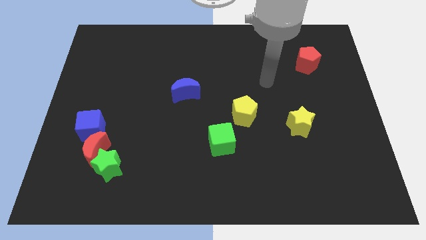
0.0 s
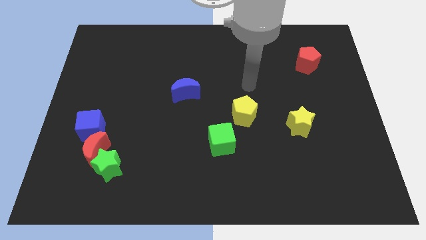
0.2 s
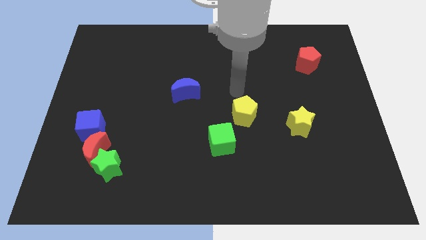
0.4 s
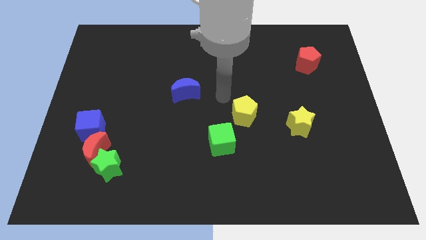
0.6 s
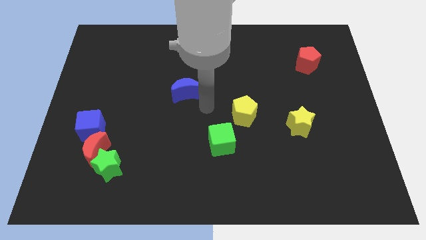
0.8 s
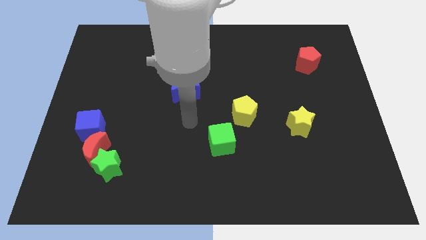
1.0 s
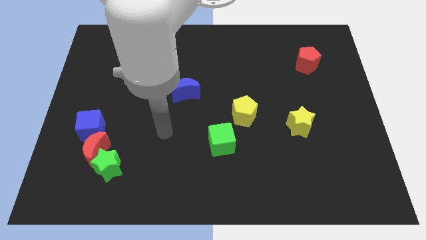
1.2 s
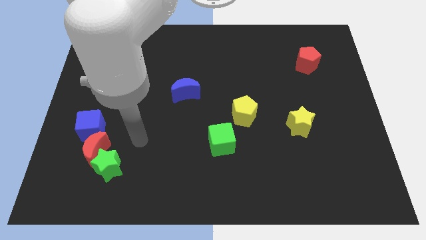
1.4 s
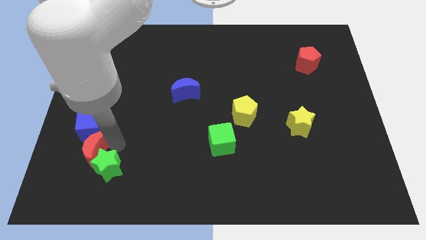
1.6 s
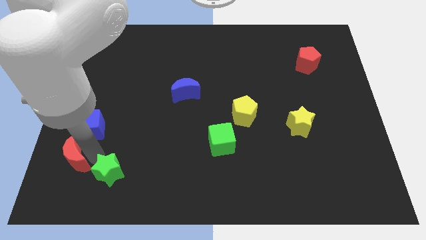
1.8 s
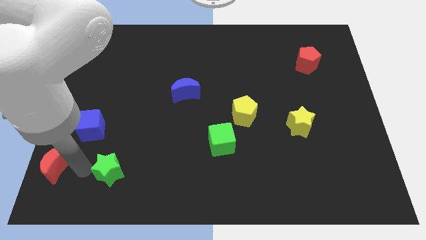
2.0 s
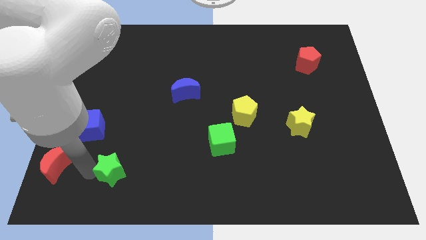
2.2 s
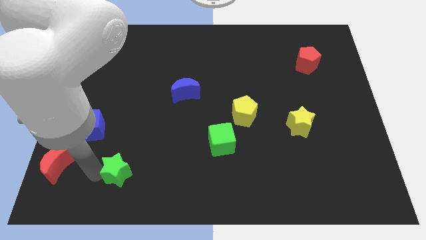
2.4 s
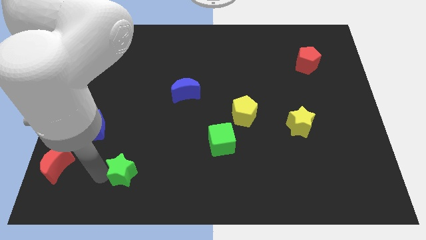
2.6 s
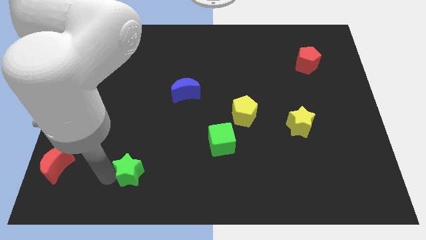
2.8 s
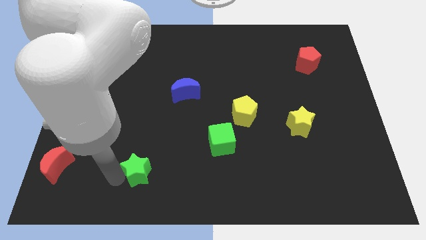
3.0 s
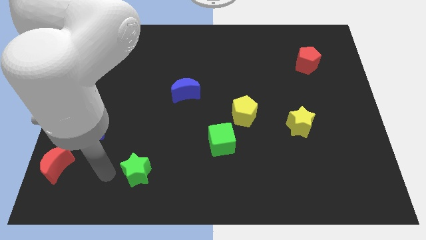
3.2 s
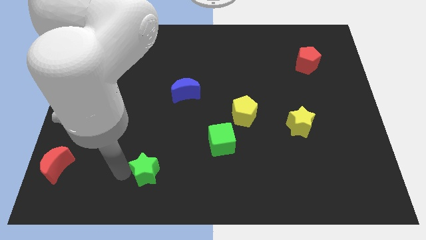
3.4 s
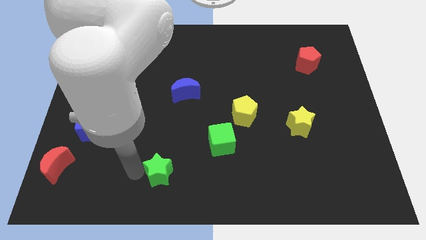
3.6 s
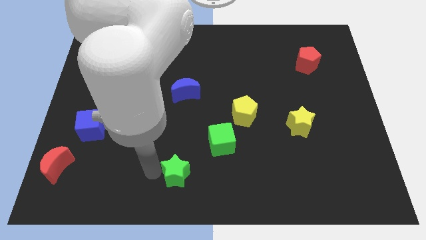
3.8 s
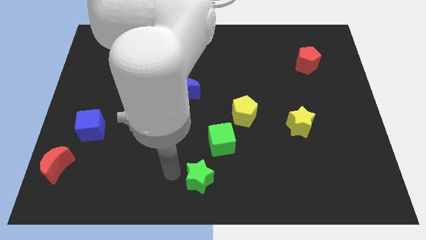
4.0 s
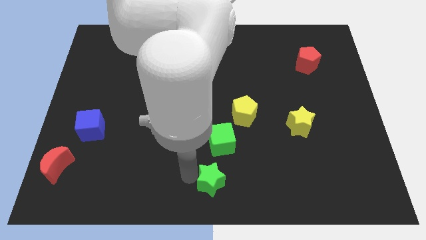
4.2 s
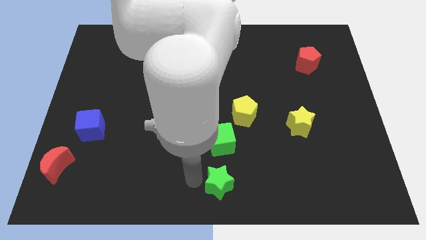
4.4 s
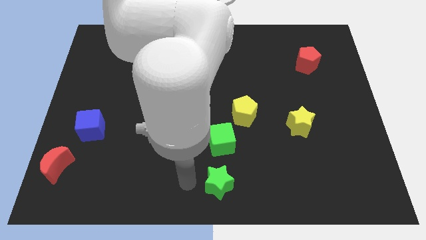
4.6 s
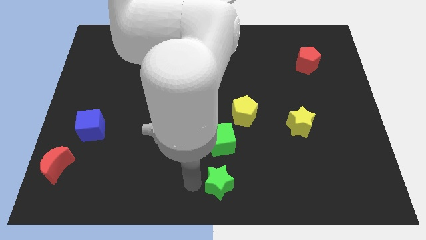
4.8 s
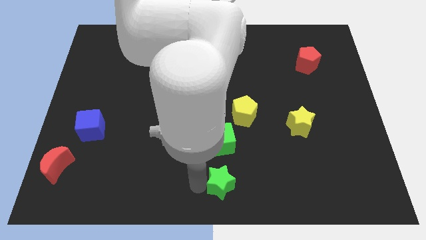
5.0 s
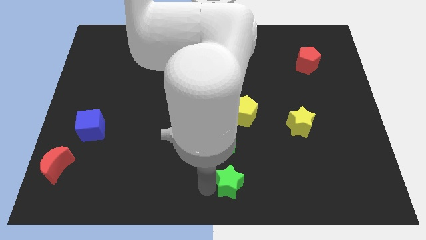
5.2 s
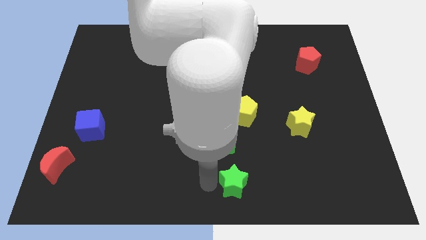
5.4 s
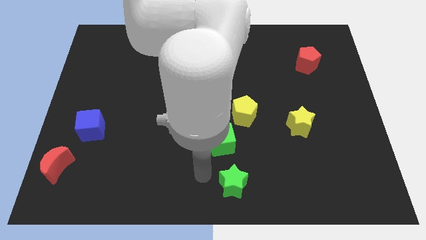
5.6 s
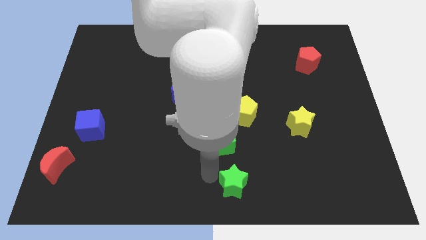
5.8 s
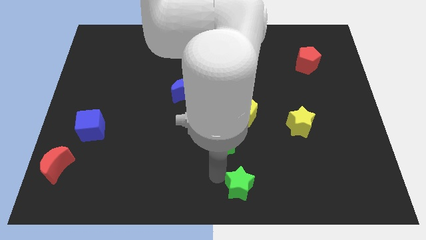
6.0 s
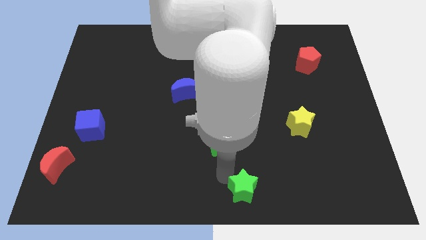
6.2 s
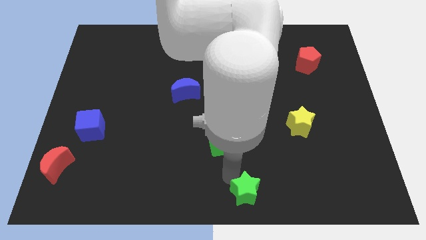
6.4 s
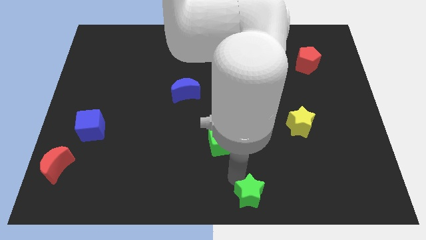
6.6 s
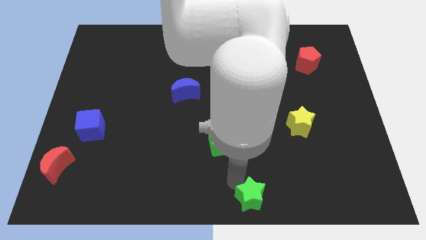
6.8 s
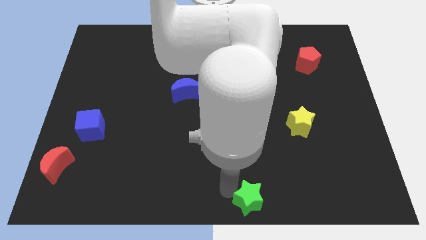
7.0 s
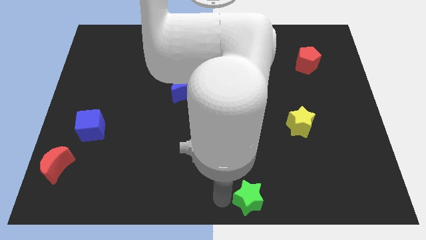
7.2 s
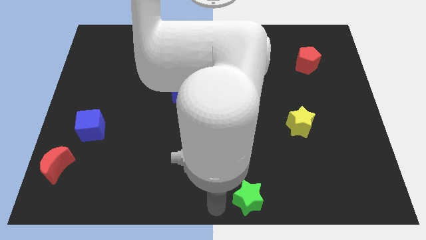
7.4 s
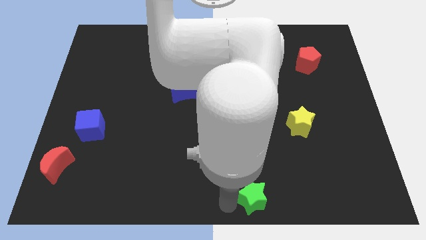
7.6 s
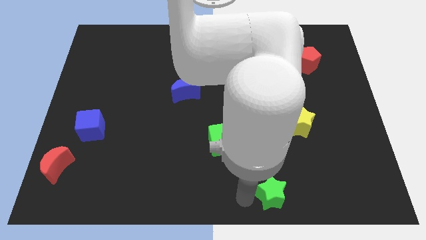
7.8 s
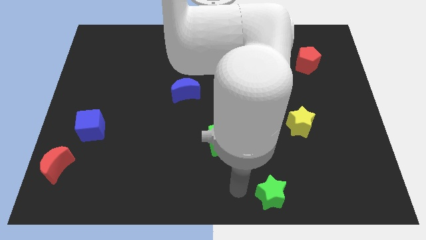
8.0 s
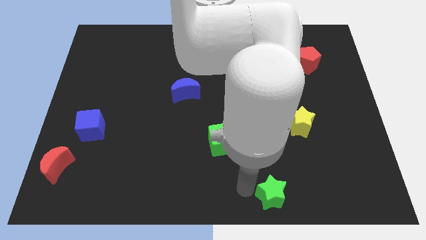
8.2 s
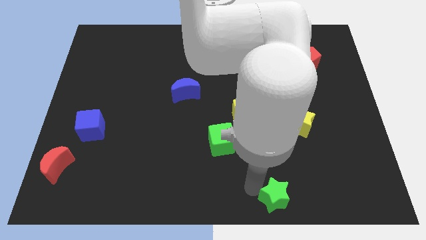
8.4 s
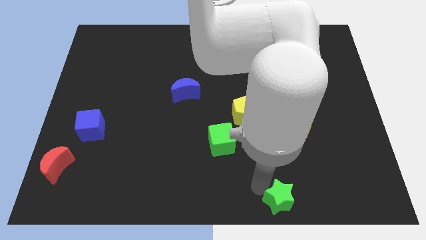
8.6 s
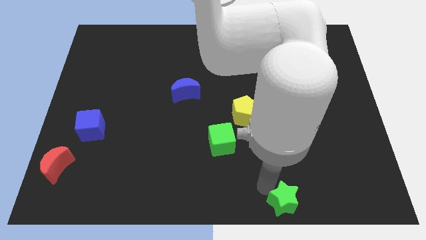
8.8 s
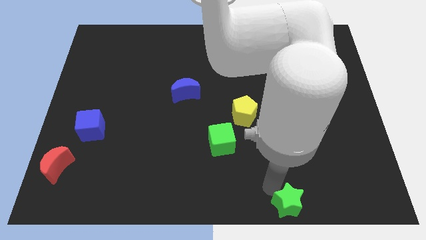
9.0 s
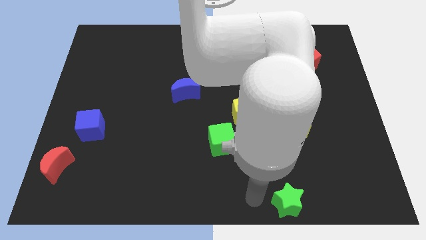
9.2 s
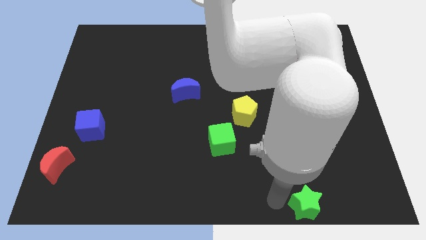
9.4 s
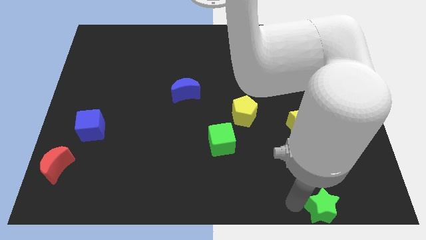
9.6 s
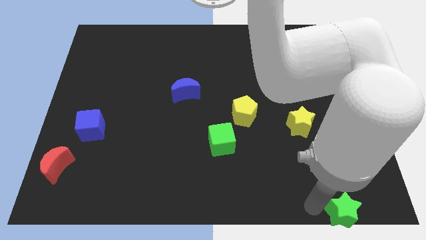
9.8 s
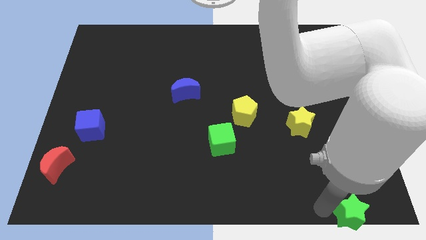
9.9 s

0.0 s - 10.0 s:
put the green star to the lower right corner

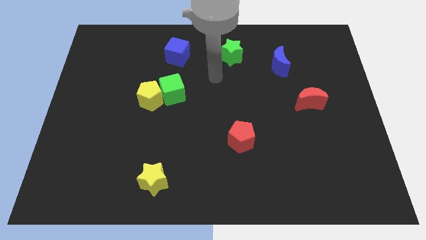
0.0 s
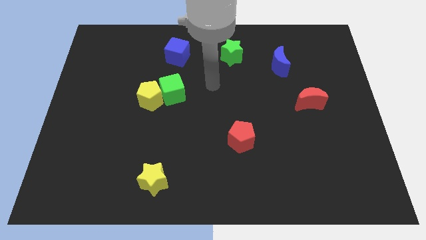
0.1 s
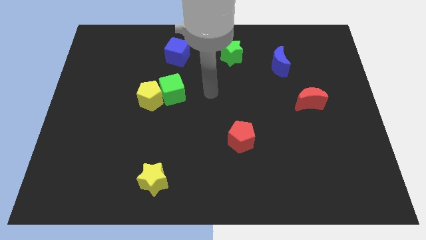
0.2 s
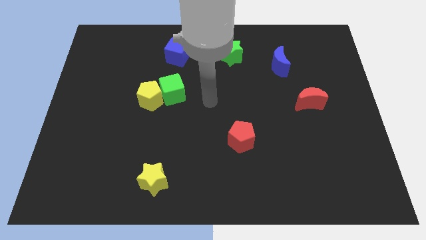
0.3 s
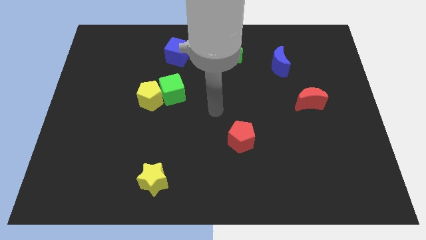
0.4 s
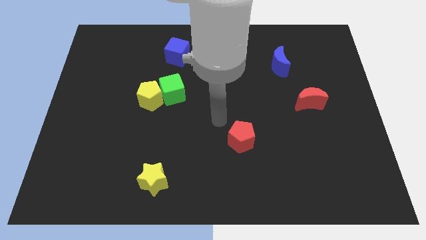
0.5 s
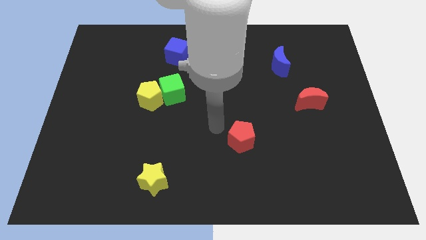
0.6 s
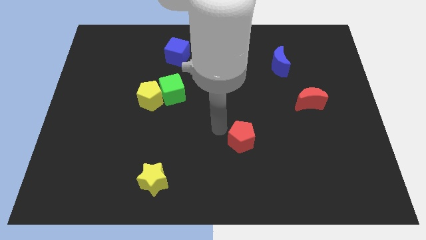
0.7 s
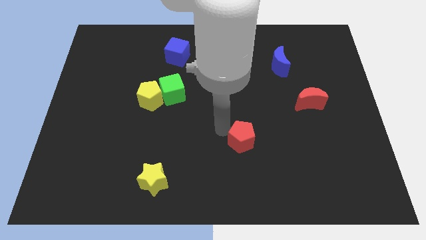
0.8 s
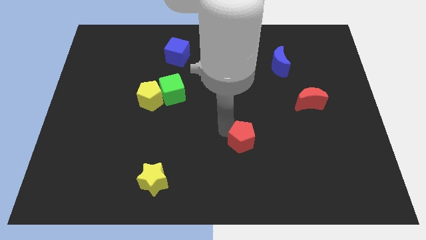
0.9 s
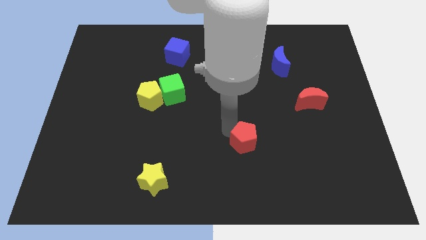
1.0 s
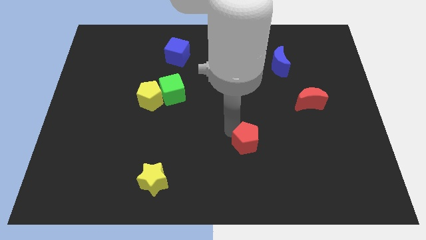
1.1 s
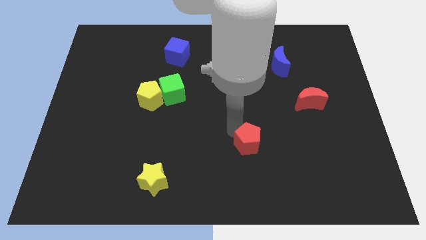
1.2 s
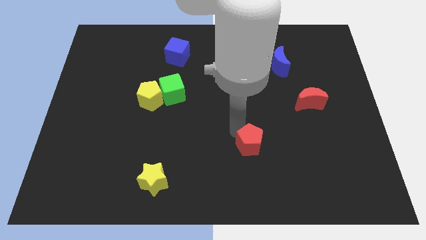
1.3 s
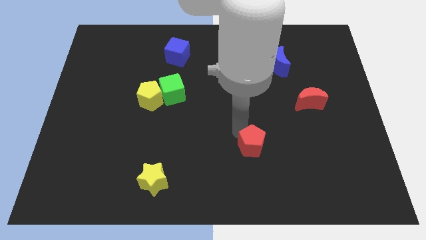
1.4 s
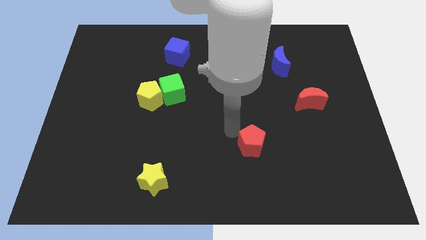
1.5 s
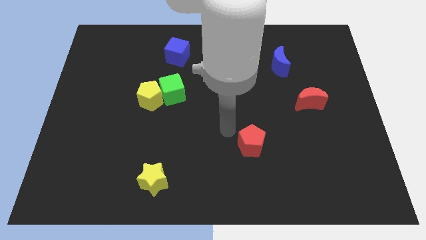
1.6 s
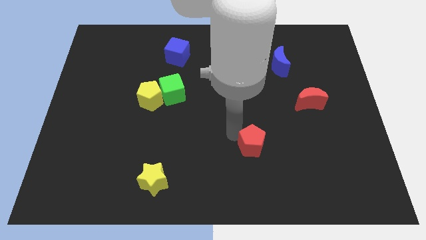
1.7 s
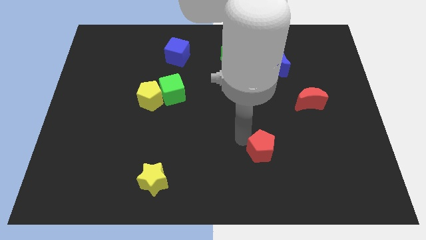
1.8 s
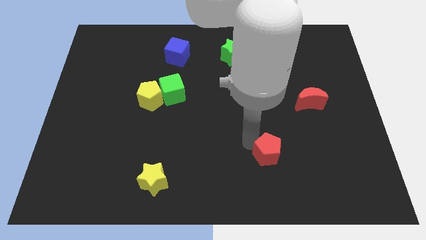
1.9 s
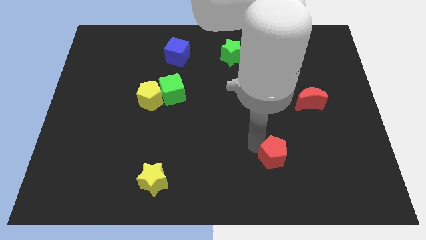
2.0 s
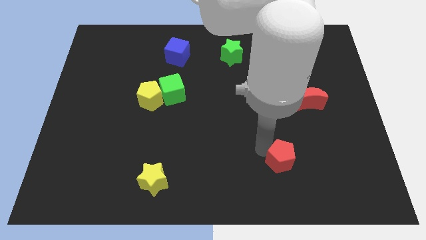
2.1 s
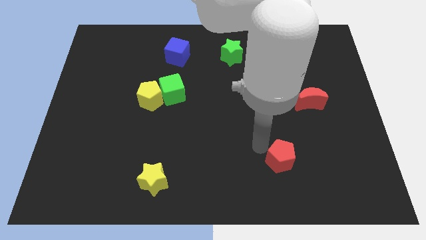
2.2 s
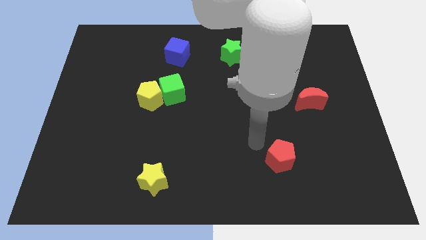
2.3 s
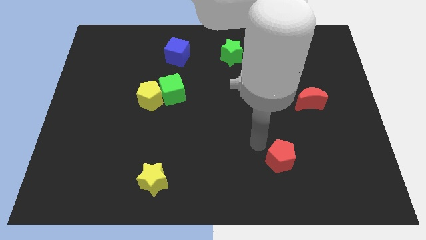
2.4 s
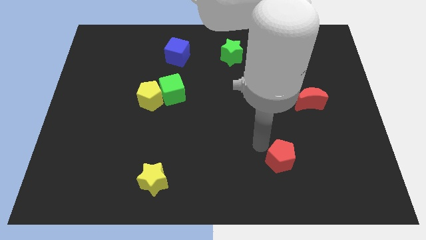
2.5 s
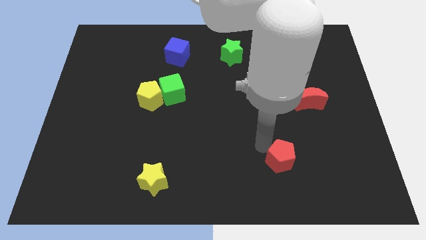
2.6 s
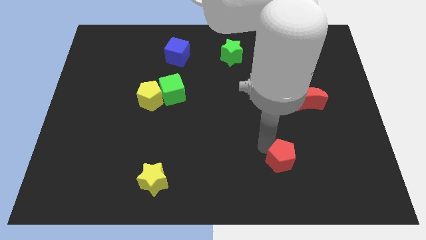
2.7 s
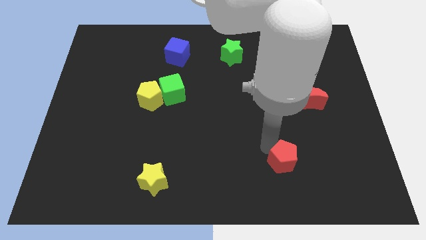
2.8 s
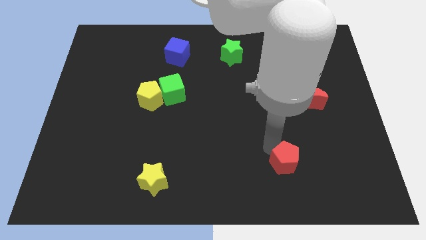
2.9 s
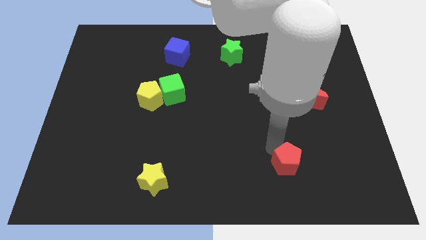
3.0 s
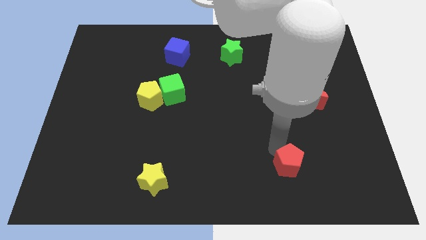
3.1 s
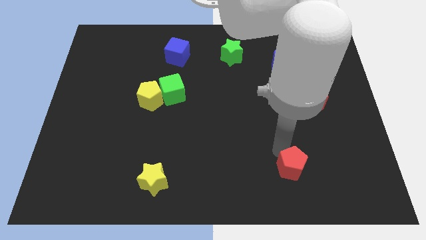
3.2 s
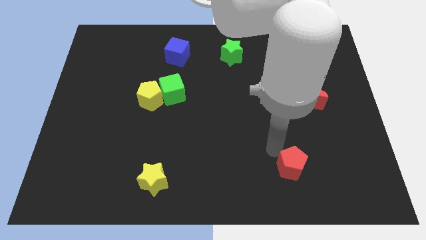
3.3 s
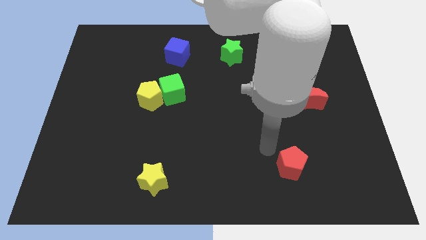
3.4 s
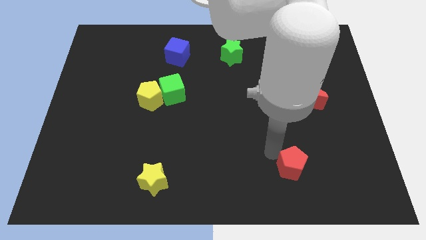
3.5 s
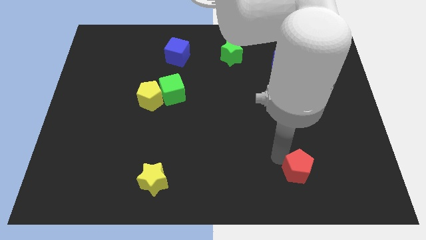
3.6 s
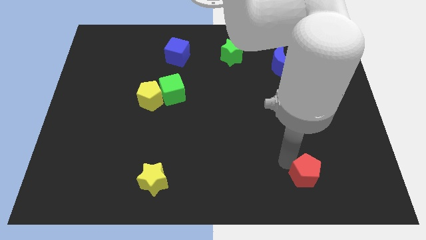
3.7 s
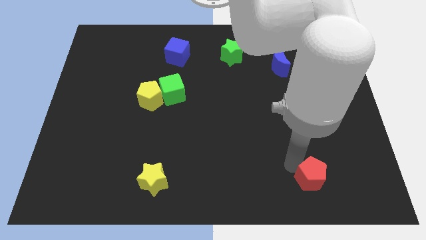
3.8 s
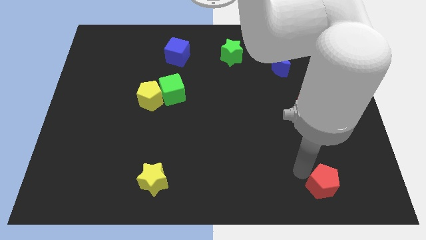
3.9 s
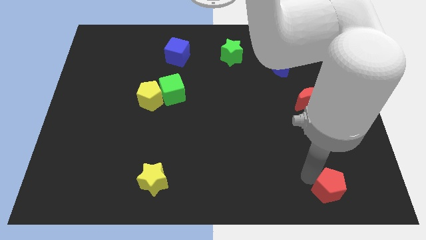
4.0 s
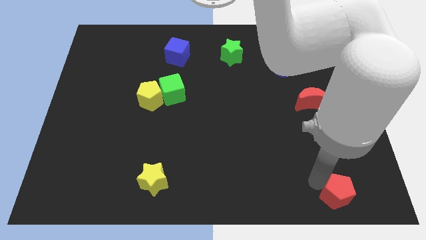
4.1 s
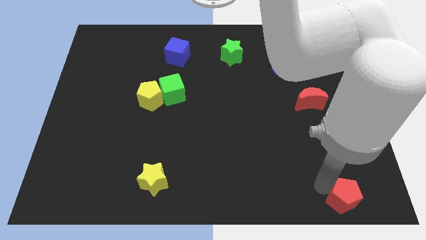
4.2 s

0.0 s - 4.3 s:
push the red pentagon to the lower right corner
